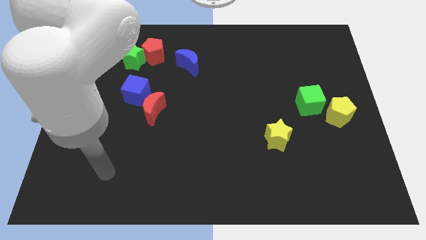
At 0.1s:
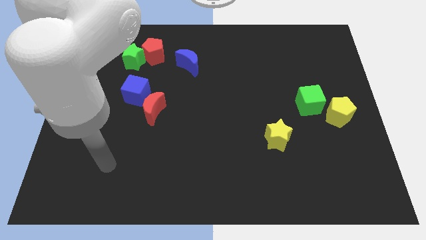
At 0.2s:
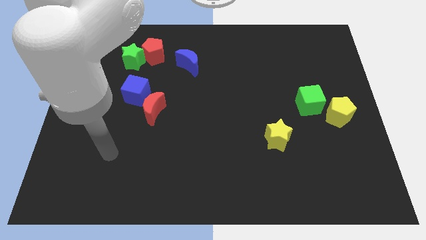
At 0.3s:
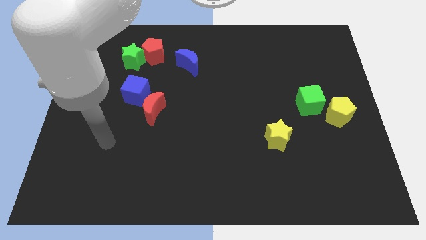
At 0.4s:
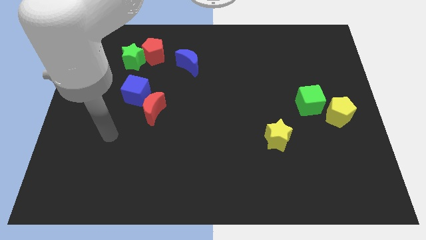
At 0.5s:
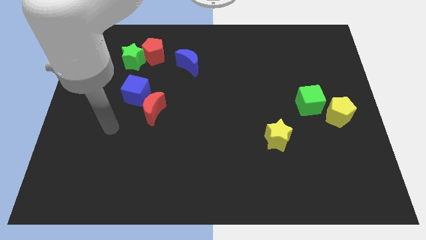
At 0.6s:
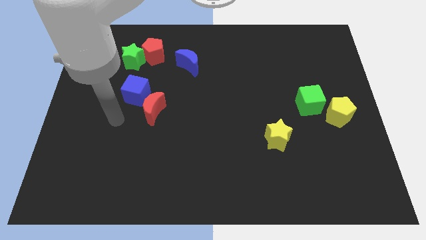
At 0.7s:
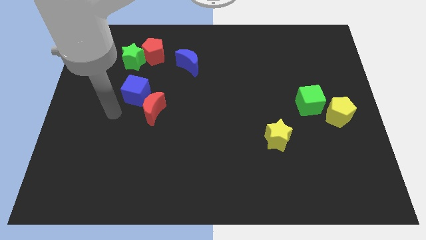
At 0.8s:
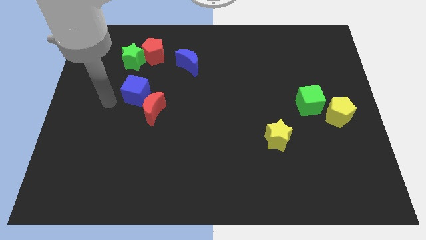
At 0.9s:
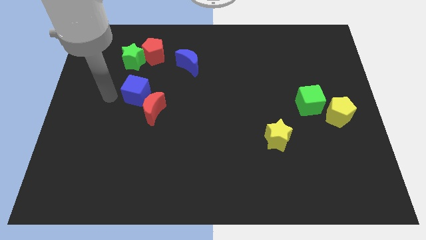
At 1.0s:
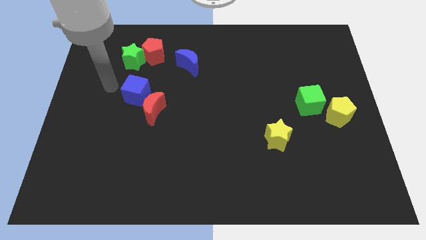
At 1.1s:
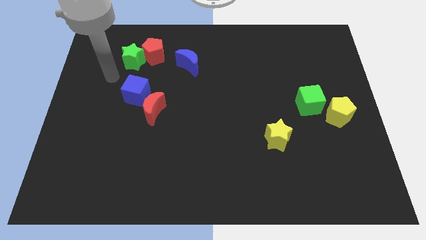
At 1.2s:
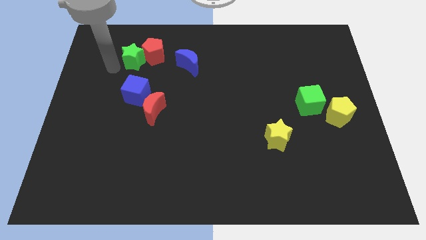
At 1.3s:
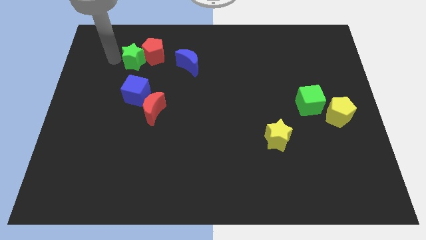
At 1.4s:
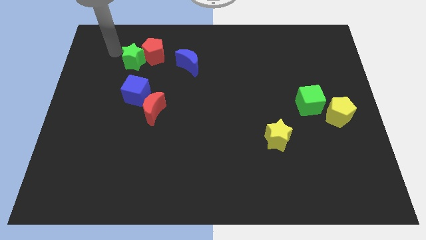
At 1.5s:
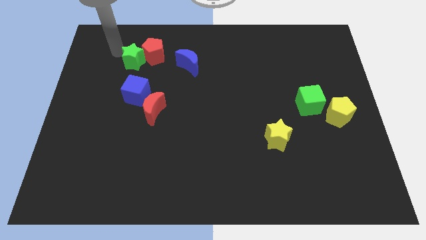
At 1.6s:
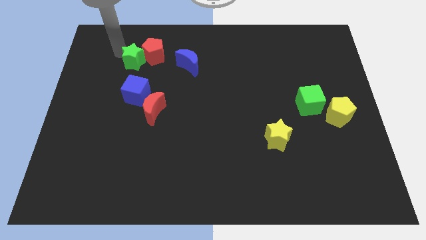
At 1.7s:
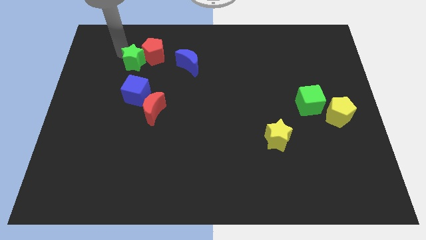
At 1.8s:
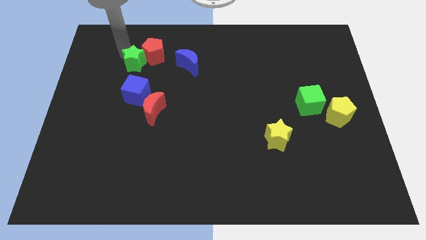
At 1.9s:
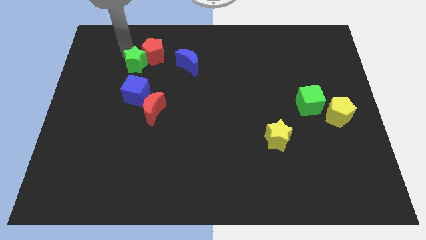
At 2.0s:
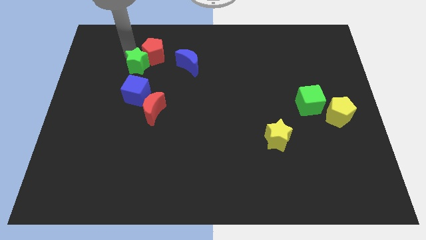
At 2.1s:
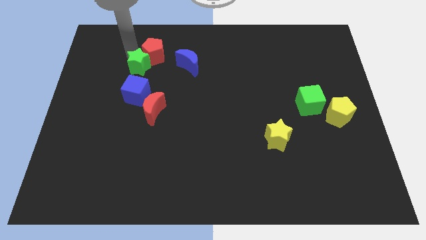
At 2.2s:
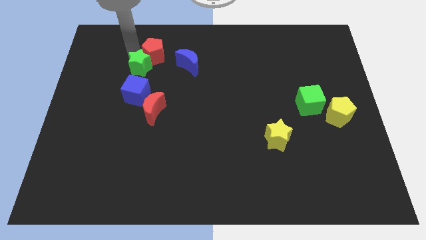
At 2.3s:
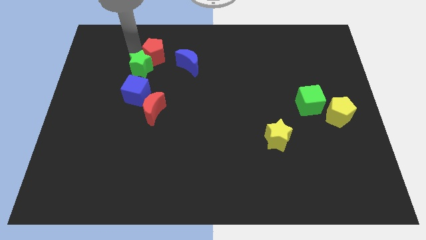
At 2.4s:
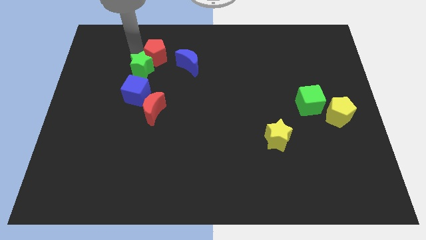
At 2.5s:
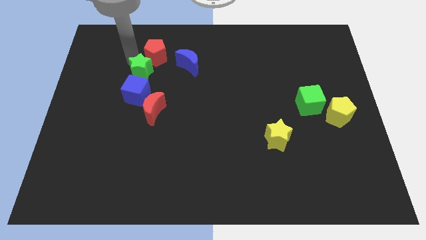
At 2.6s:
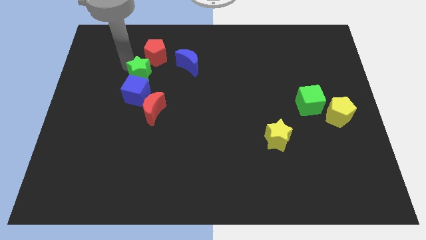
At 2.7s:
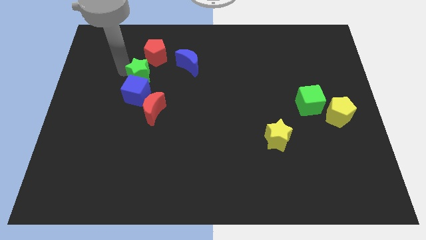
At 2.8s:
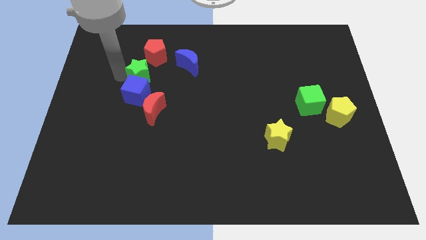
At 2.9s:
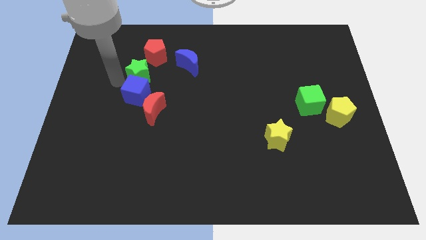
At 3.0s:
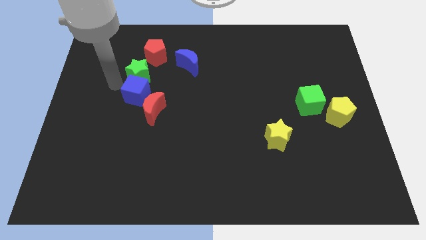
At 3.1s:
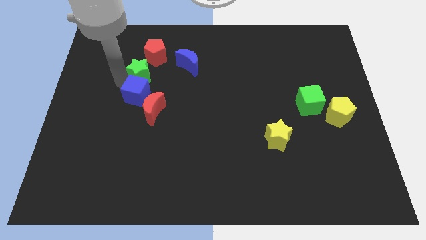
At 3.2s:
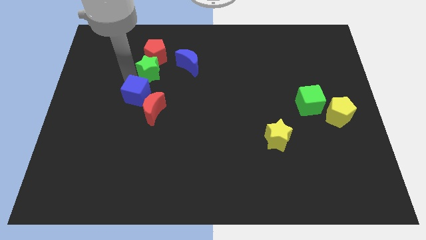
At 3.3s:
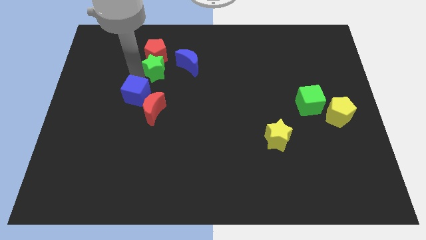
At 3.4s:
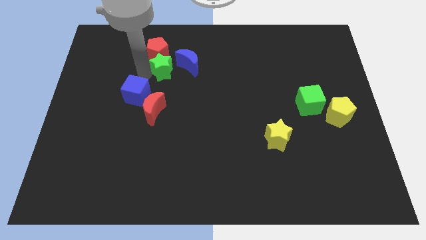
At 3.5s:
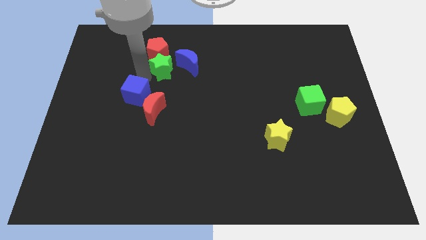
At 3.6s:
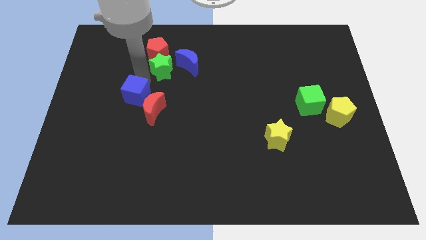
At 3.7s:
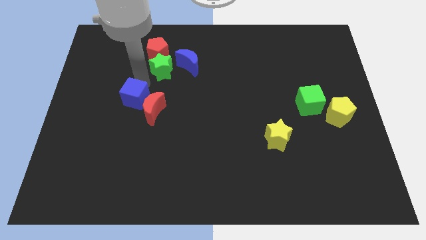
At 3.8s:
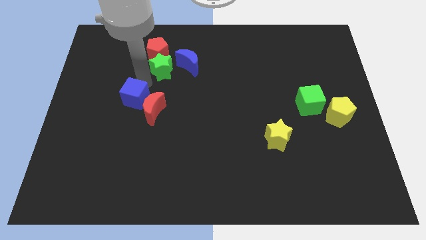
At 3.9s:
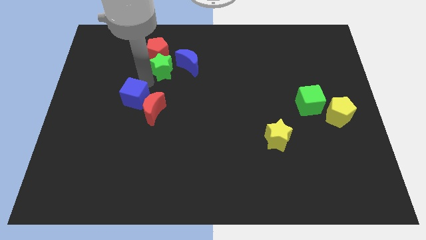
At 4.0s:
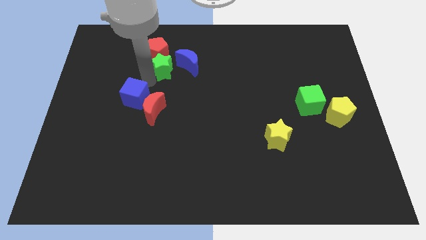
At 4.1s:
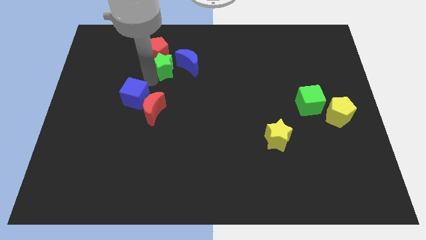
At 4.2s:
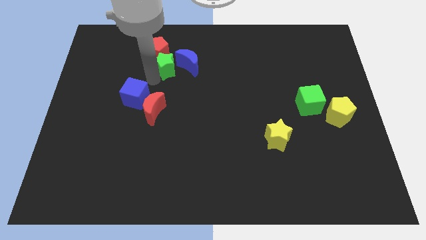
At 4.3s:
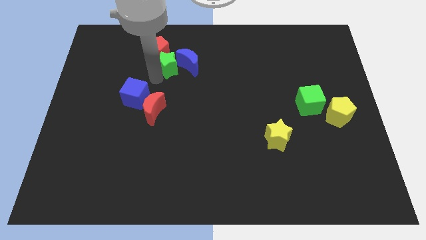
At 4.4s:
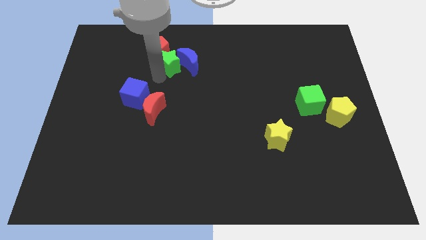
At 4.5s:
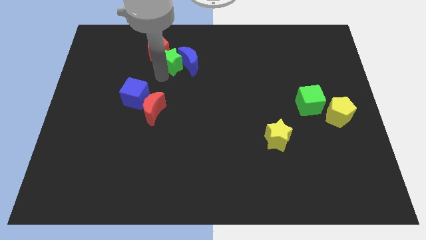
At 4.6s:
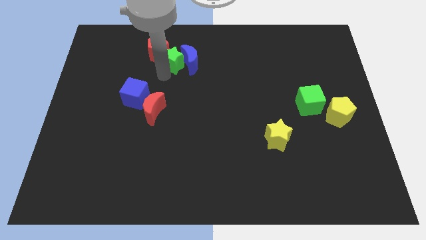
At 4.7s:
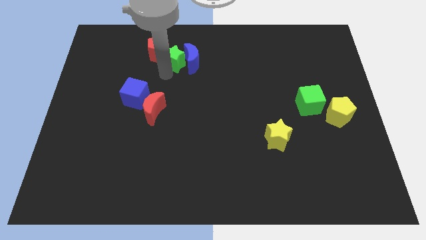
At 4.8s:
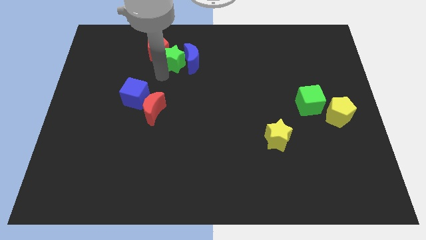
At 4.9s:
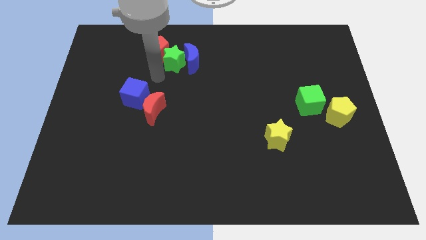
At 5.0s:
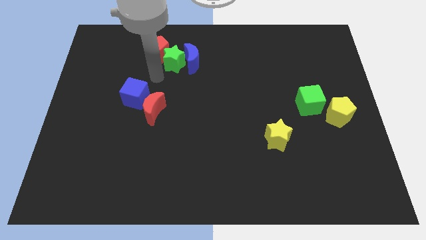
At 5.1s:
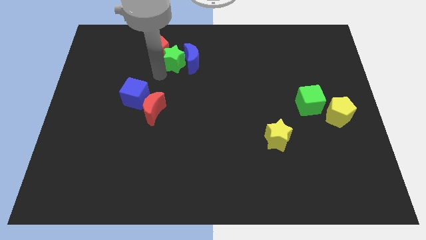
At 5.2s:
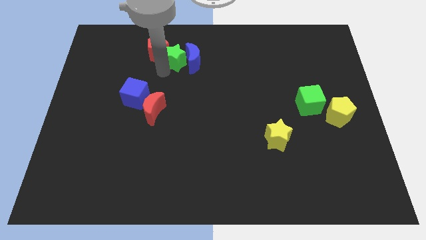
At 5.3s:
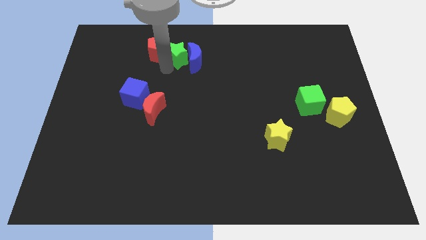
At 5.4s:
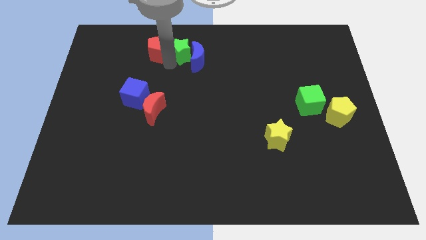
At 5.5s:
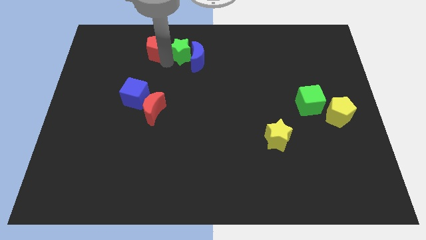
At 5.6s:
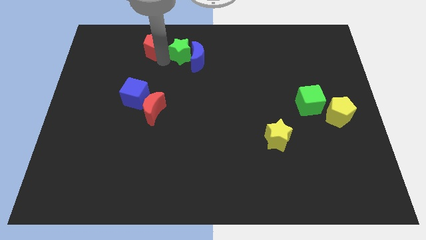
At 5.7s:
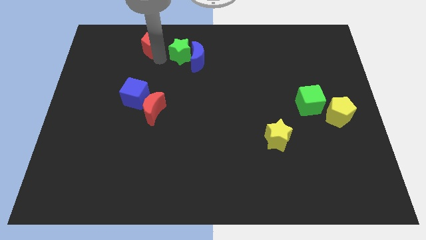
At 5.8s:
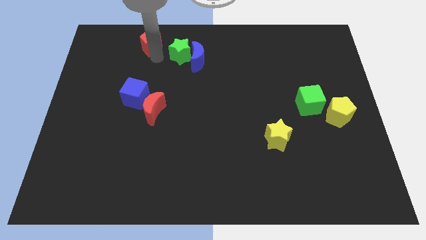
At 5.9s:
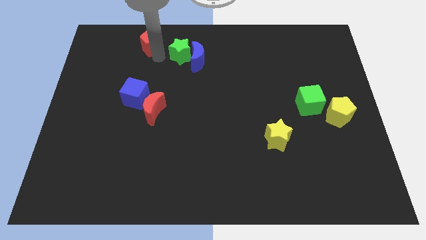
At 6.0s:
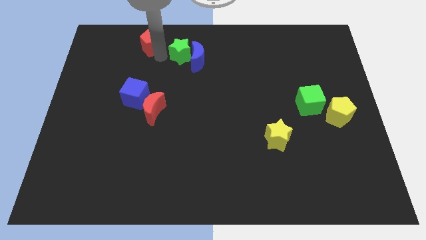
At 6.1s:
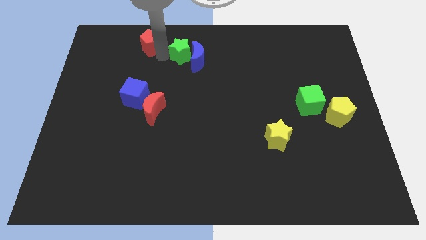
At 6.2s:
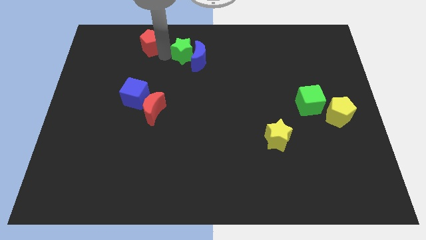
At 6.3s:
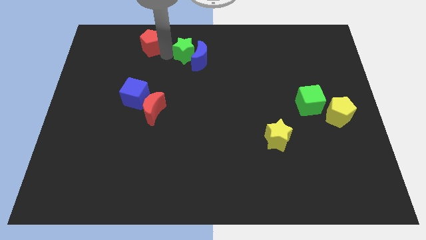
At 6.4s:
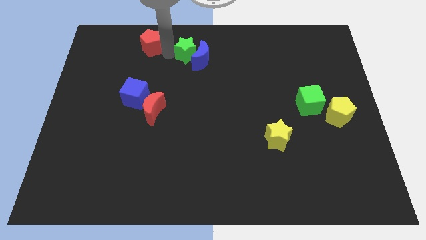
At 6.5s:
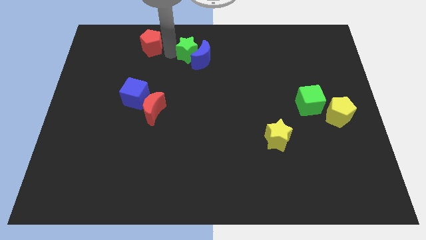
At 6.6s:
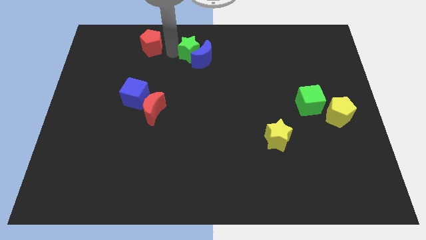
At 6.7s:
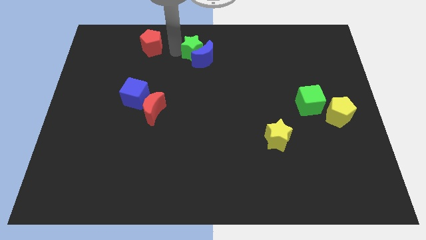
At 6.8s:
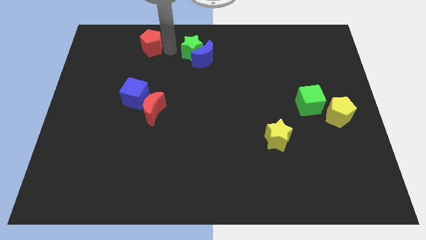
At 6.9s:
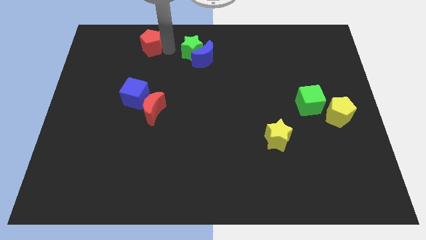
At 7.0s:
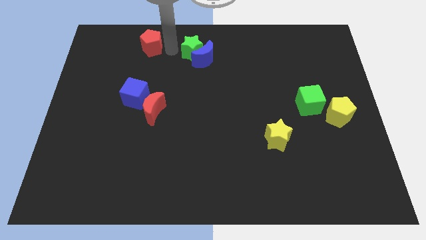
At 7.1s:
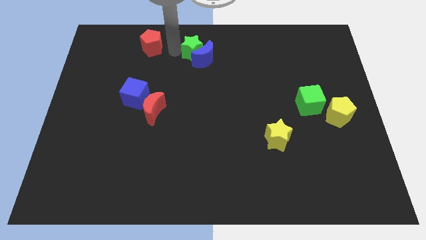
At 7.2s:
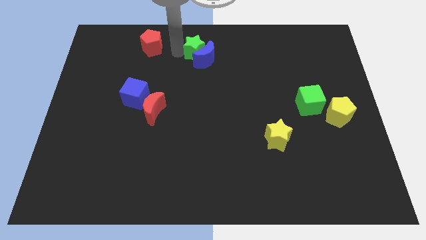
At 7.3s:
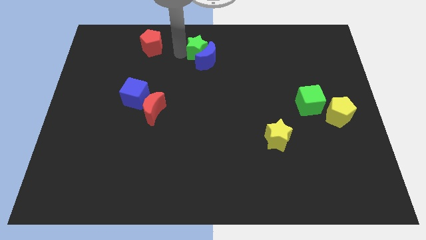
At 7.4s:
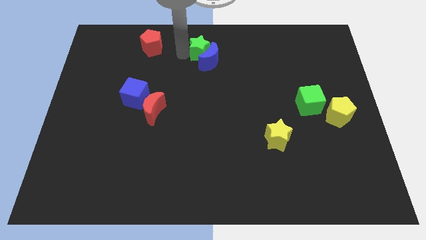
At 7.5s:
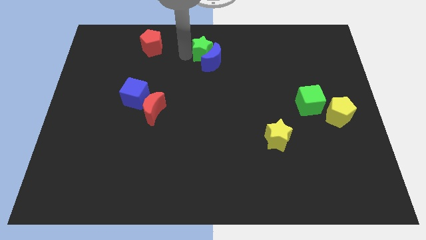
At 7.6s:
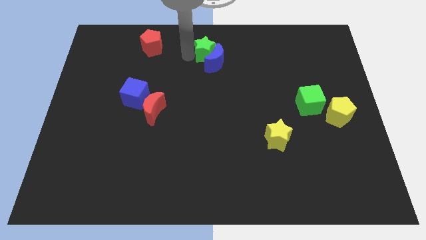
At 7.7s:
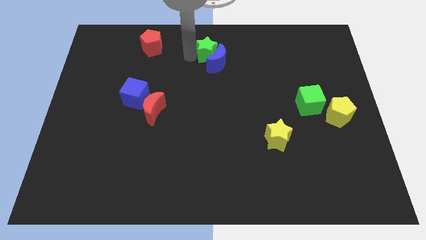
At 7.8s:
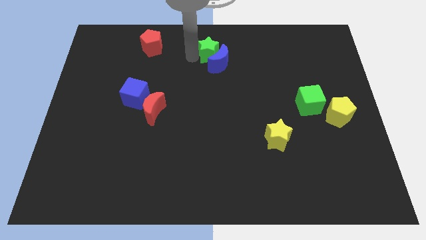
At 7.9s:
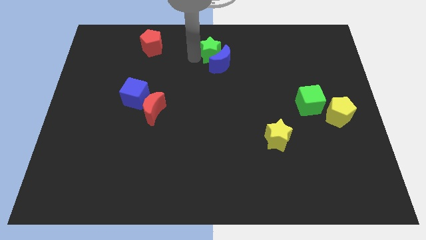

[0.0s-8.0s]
slide the green star to the right

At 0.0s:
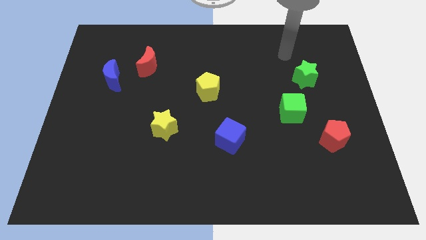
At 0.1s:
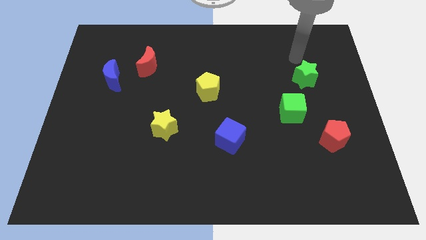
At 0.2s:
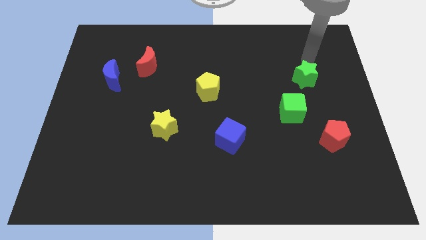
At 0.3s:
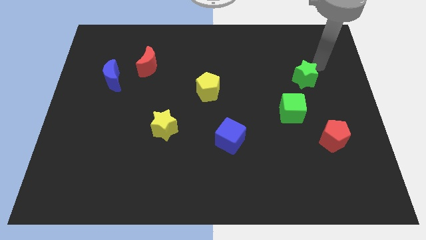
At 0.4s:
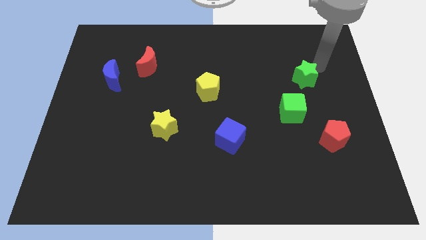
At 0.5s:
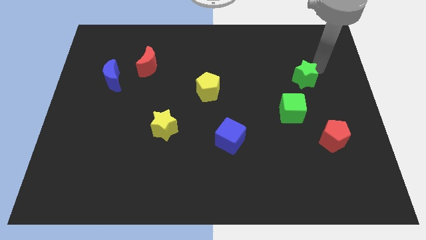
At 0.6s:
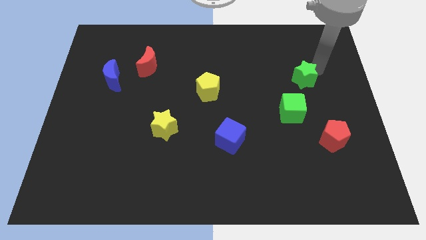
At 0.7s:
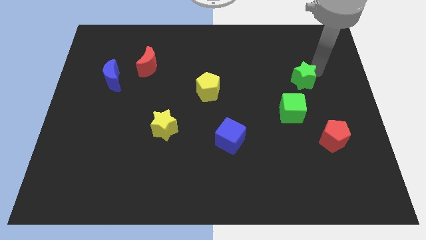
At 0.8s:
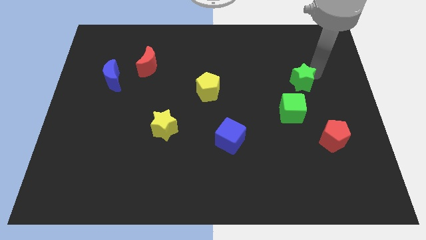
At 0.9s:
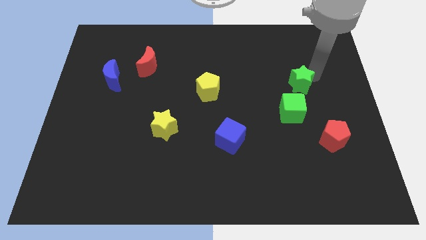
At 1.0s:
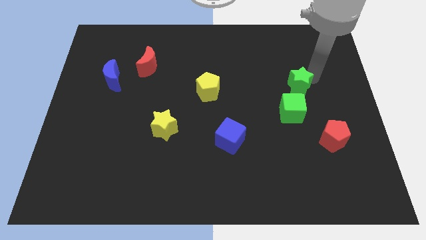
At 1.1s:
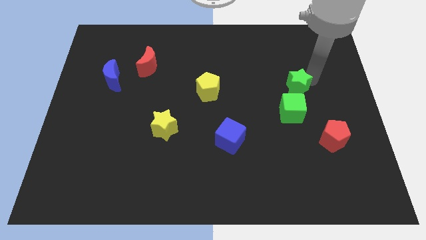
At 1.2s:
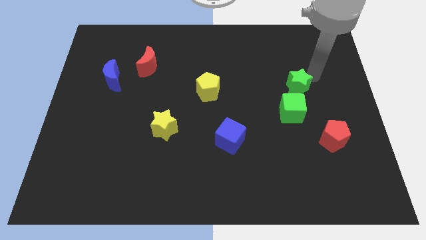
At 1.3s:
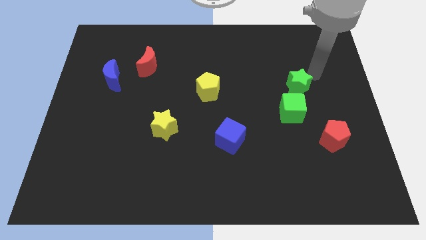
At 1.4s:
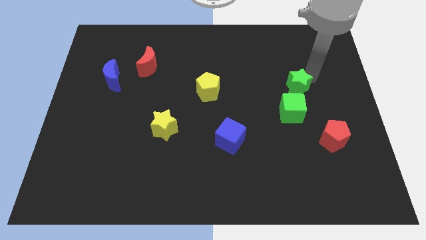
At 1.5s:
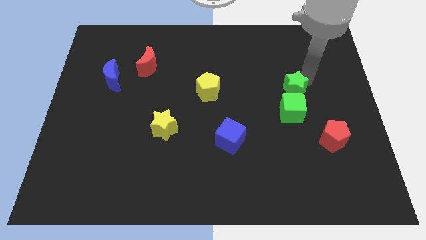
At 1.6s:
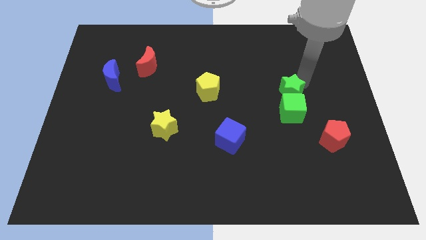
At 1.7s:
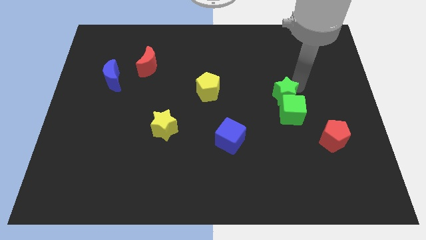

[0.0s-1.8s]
slightly slide the green star down and to the left
